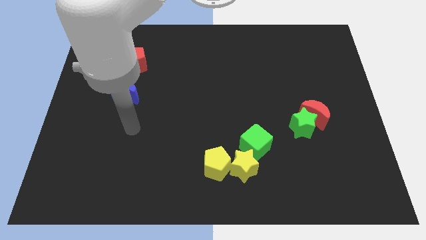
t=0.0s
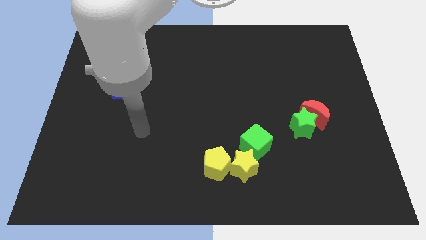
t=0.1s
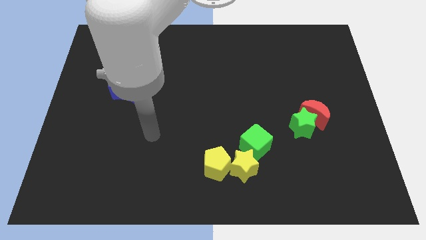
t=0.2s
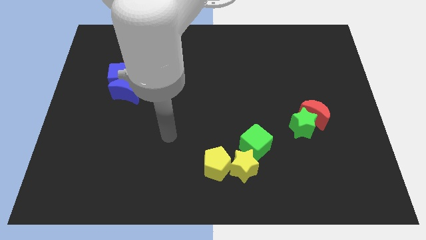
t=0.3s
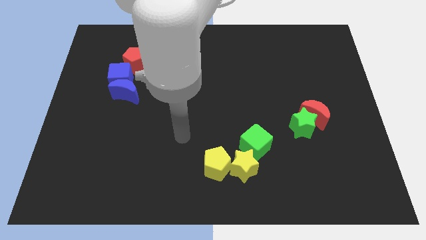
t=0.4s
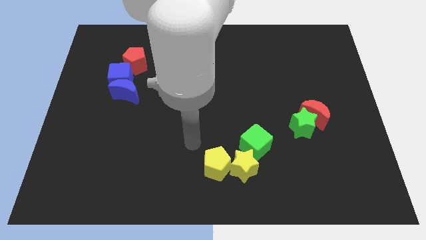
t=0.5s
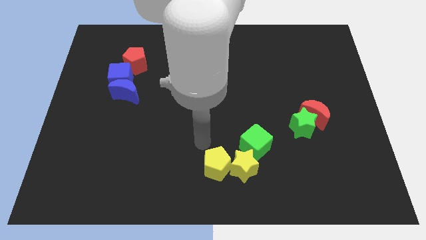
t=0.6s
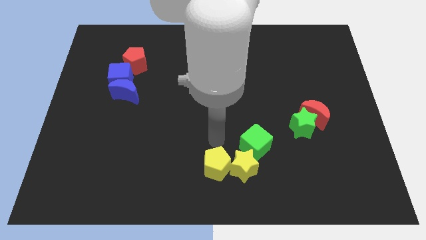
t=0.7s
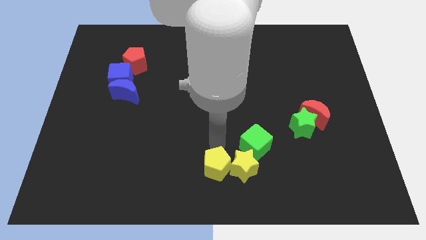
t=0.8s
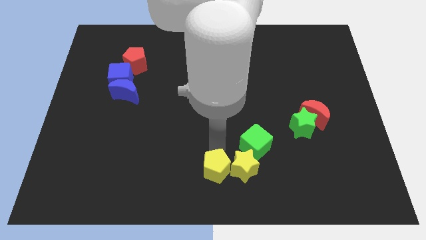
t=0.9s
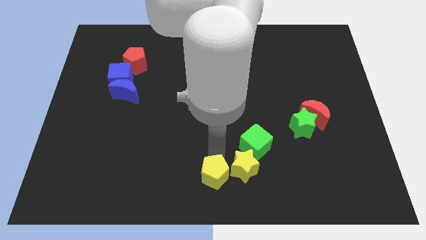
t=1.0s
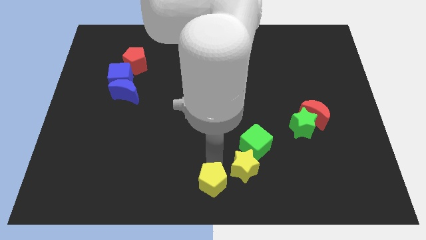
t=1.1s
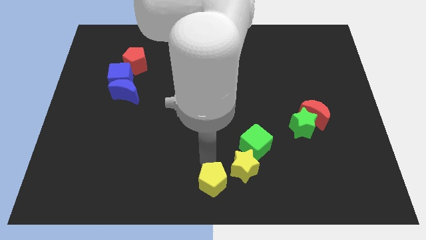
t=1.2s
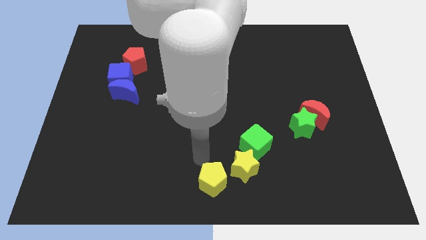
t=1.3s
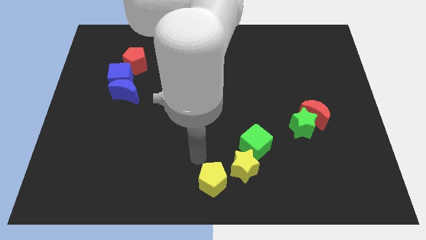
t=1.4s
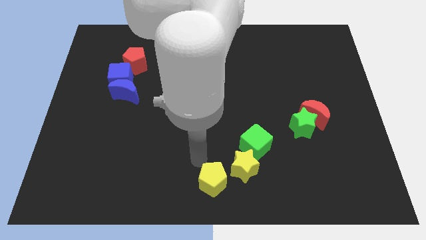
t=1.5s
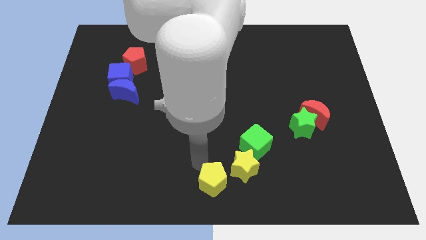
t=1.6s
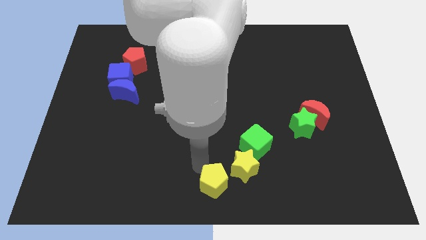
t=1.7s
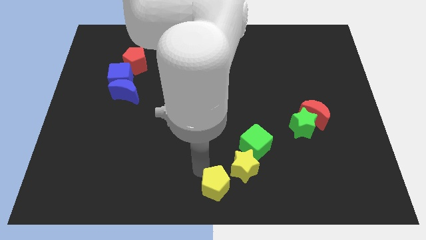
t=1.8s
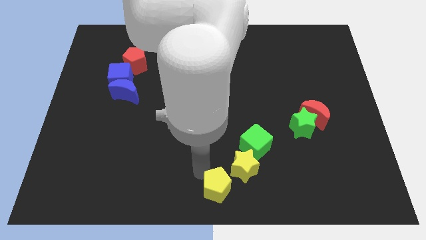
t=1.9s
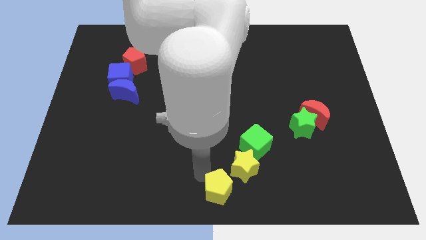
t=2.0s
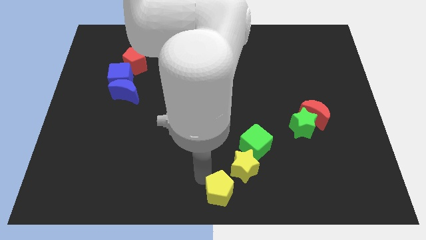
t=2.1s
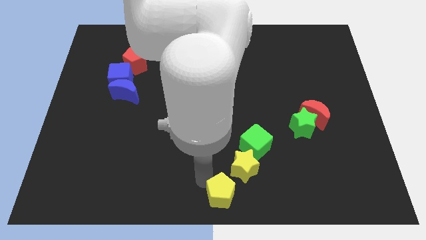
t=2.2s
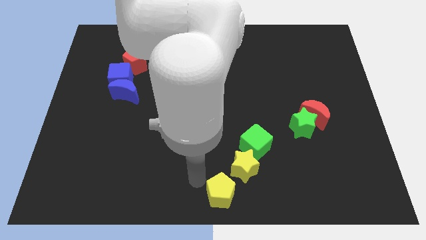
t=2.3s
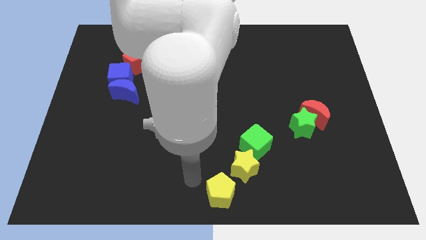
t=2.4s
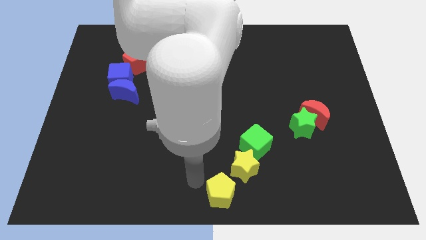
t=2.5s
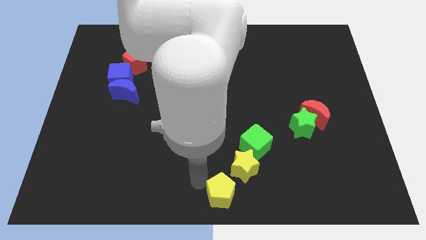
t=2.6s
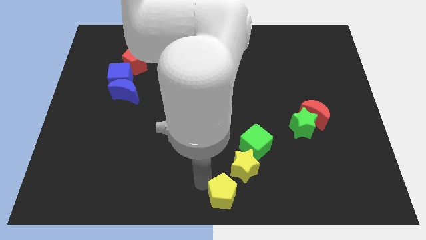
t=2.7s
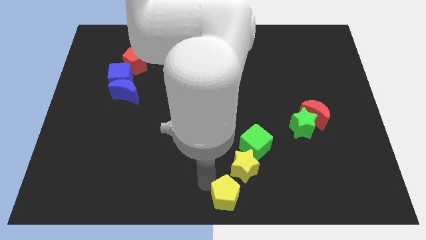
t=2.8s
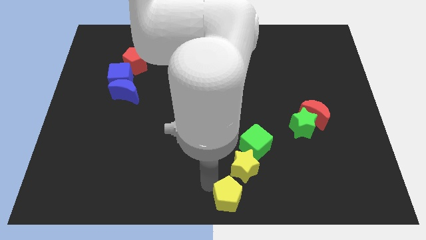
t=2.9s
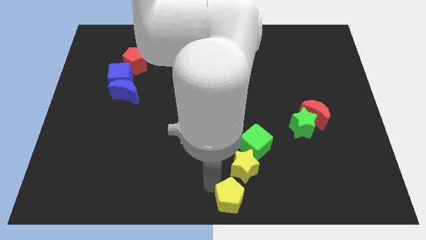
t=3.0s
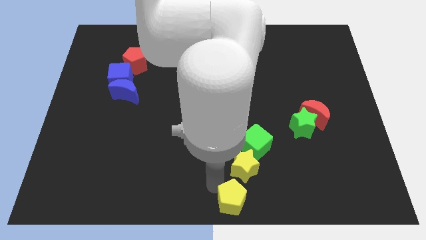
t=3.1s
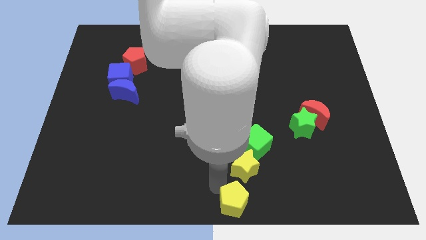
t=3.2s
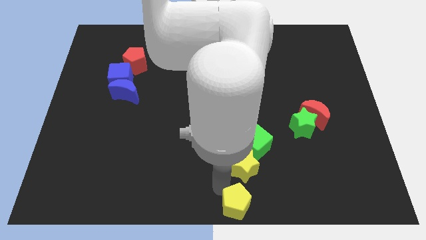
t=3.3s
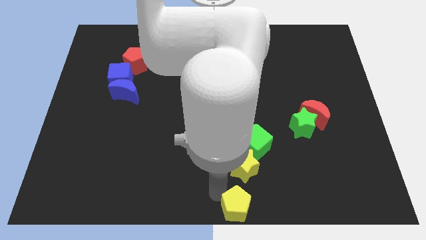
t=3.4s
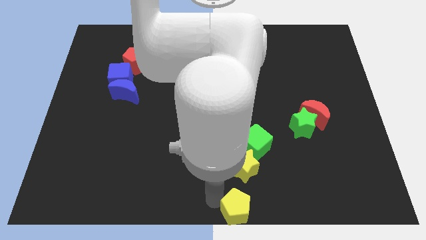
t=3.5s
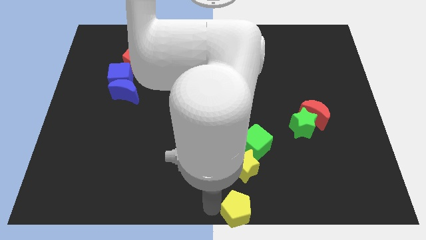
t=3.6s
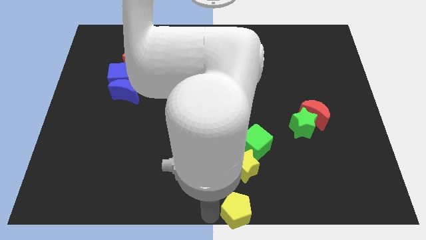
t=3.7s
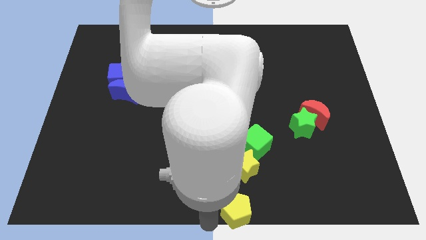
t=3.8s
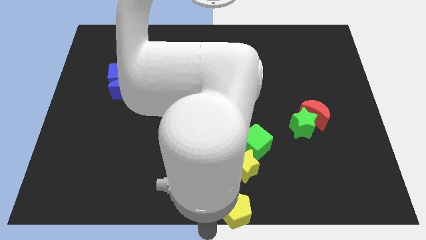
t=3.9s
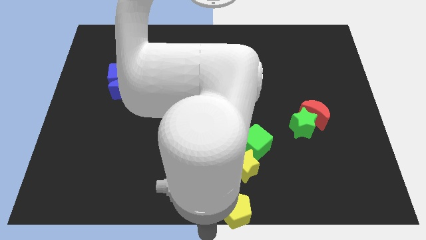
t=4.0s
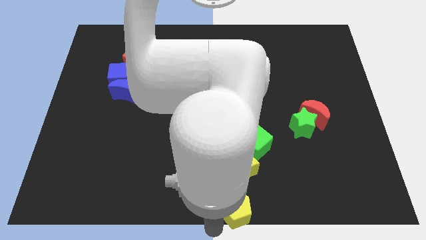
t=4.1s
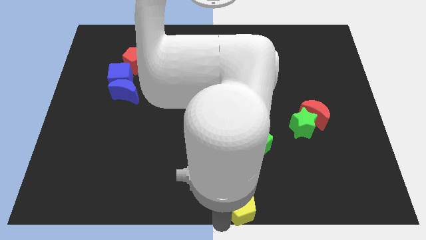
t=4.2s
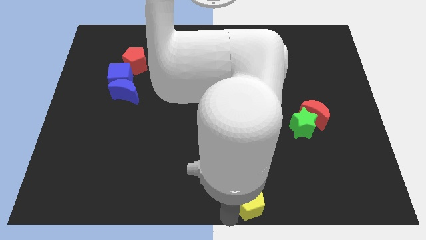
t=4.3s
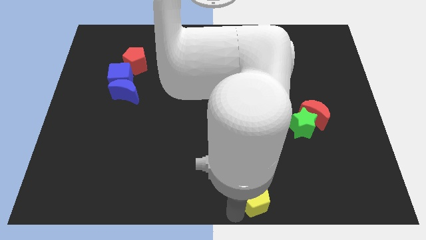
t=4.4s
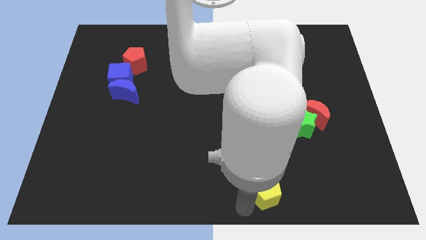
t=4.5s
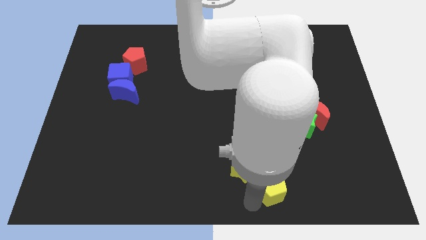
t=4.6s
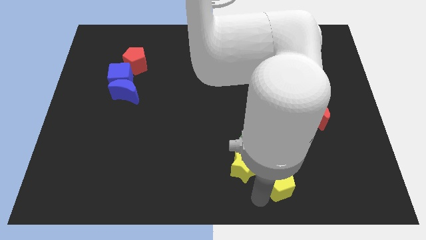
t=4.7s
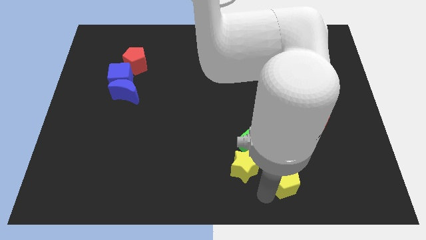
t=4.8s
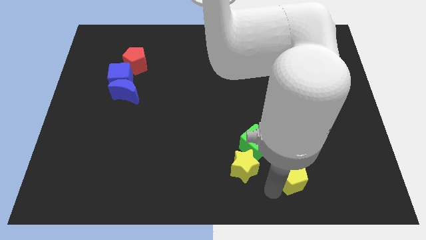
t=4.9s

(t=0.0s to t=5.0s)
push the yellow pentagon below the green star

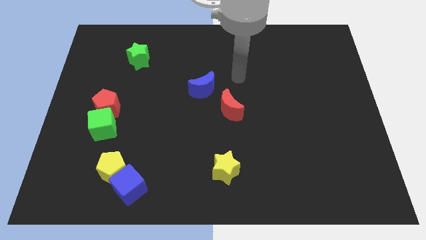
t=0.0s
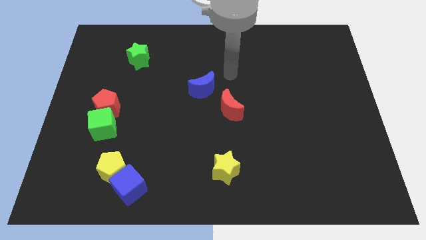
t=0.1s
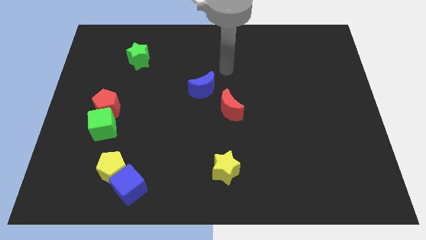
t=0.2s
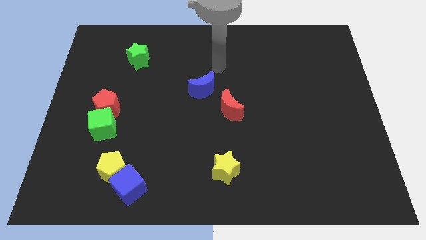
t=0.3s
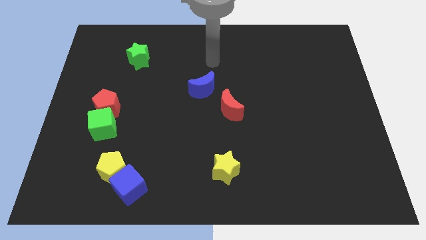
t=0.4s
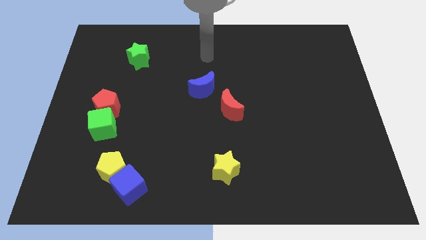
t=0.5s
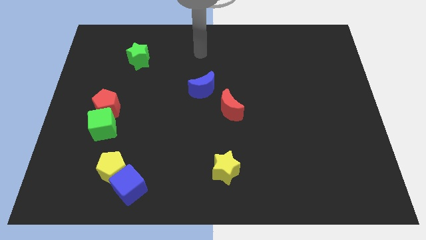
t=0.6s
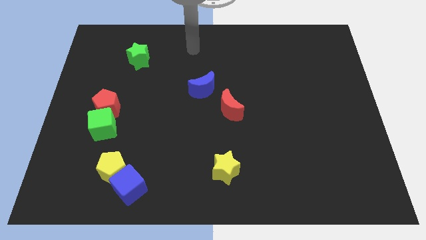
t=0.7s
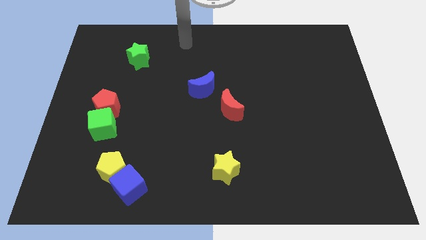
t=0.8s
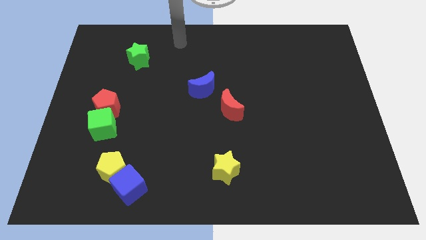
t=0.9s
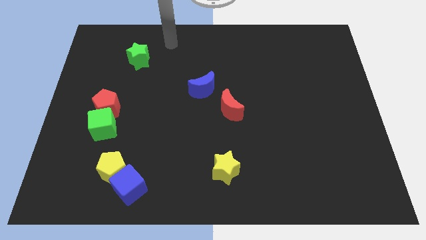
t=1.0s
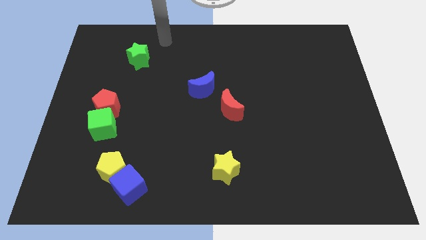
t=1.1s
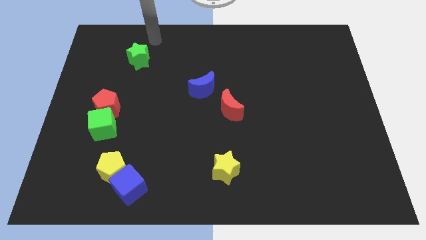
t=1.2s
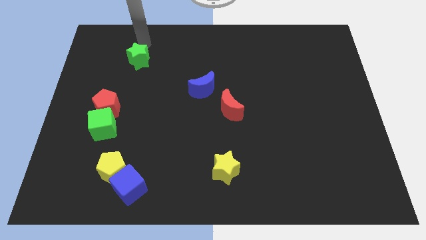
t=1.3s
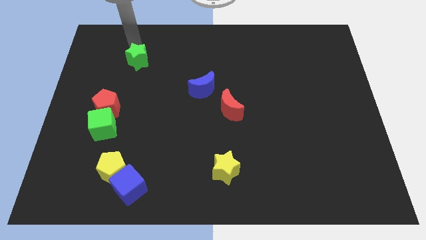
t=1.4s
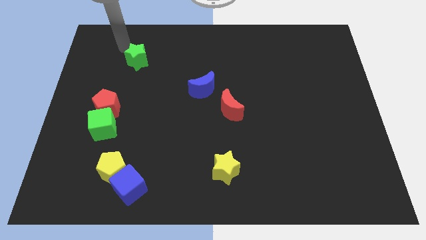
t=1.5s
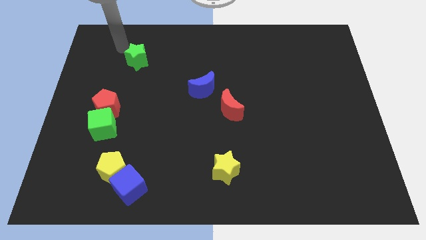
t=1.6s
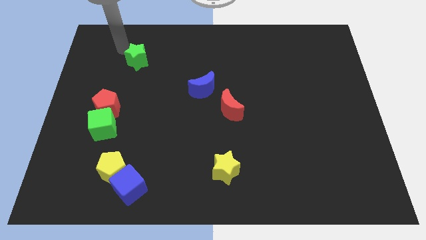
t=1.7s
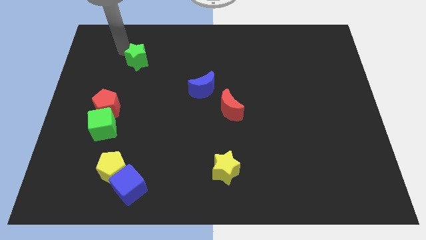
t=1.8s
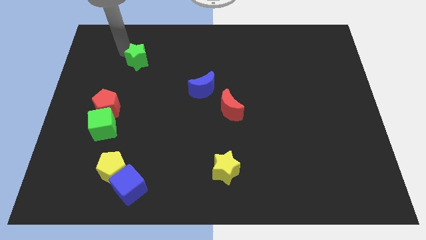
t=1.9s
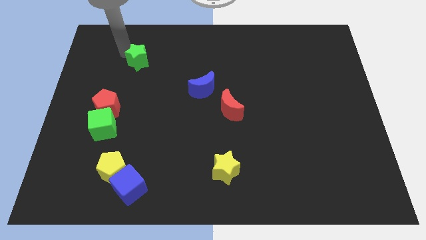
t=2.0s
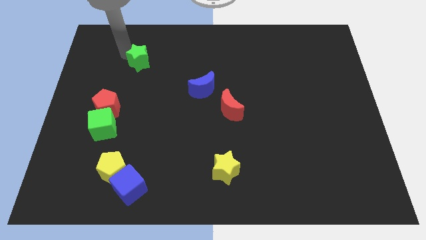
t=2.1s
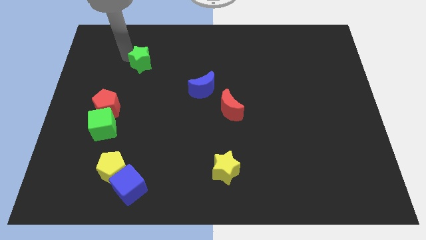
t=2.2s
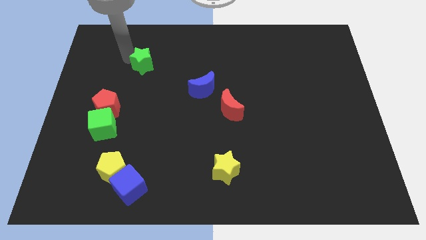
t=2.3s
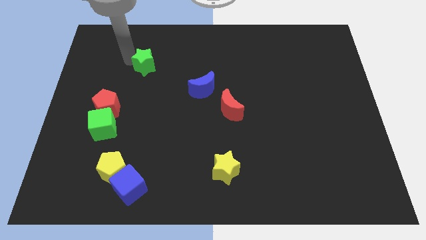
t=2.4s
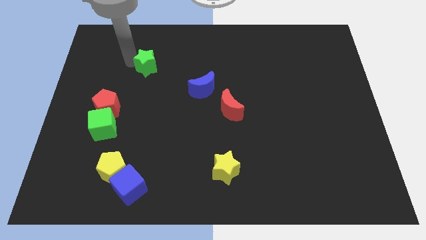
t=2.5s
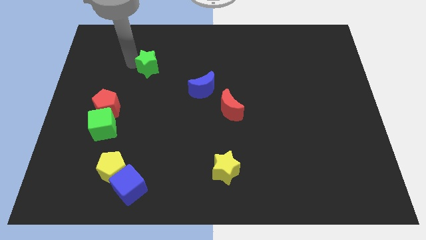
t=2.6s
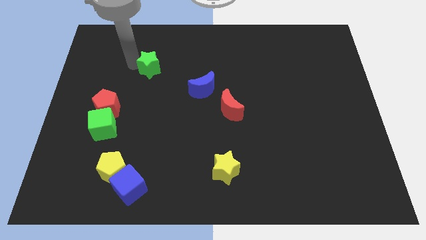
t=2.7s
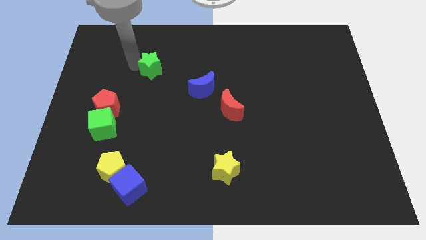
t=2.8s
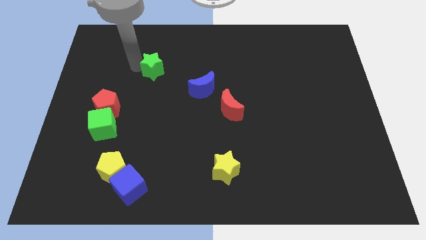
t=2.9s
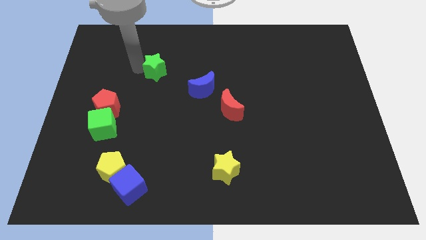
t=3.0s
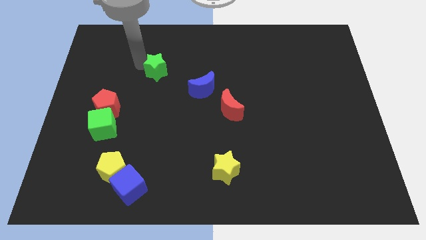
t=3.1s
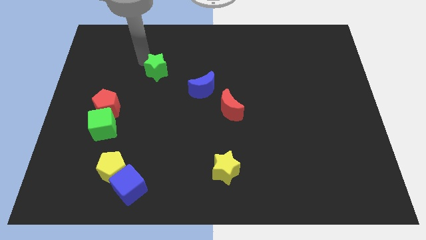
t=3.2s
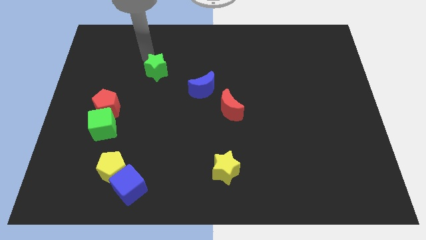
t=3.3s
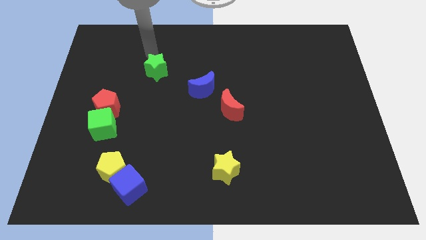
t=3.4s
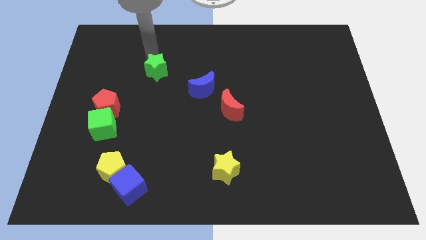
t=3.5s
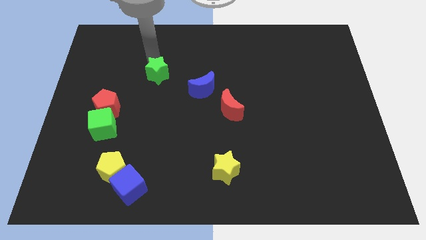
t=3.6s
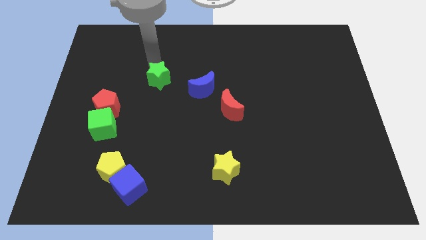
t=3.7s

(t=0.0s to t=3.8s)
slide the green star just left of the blue moon
